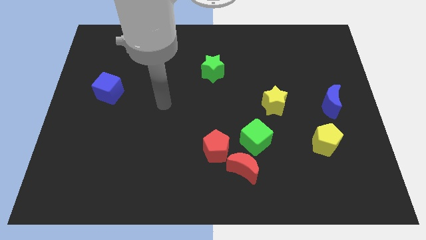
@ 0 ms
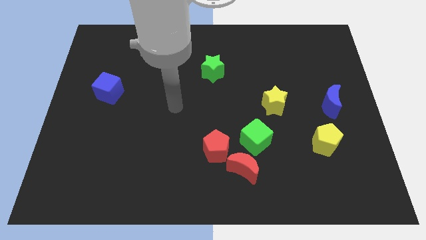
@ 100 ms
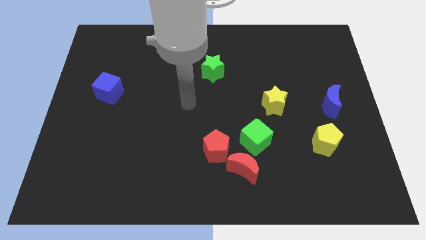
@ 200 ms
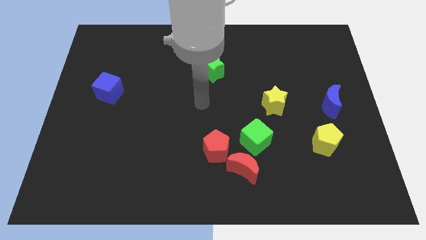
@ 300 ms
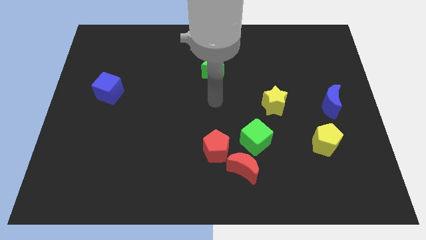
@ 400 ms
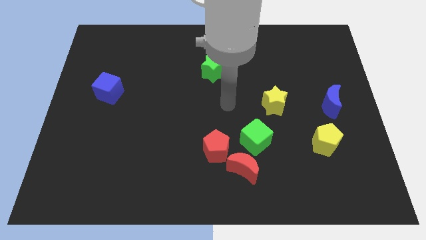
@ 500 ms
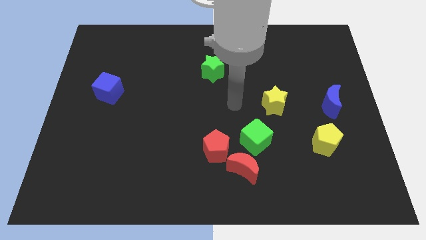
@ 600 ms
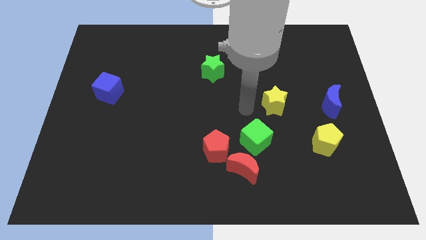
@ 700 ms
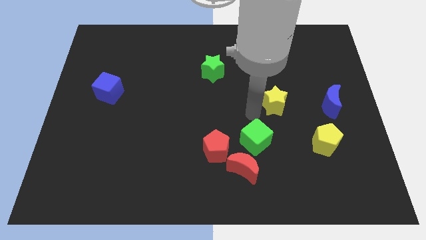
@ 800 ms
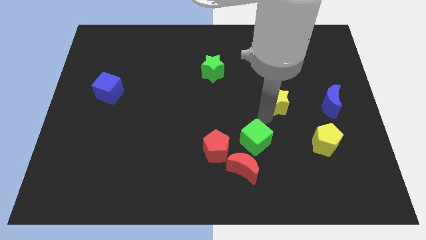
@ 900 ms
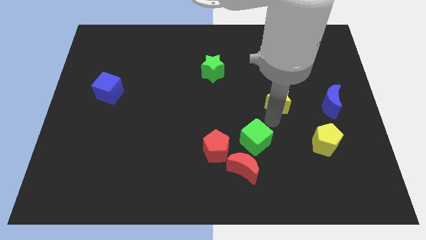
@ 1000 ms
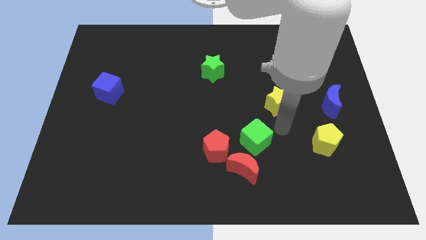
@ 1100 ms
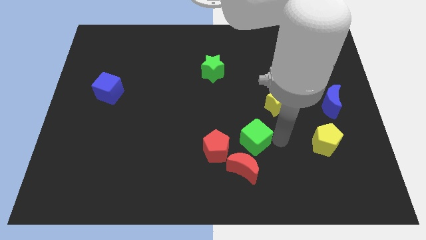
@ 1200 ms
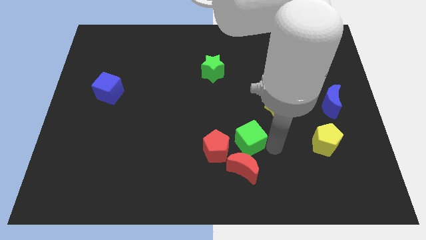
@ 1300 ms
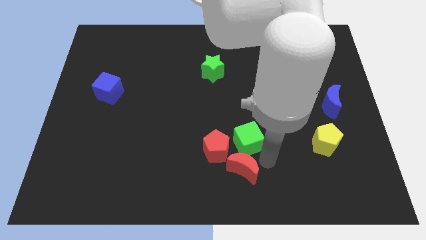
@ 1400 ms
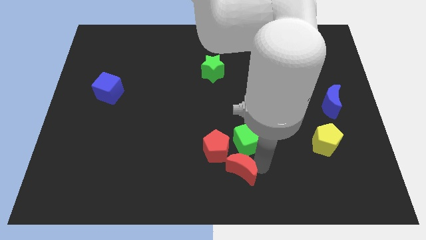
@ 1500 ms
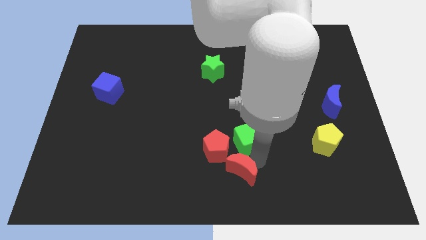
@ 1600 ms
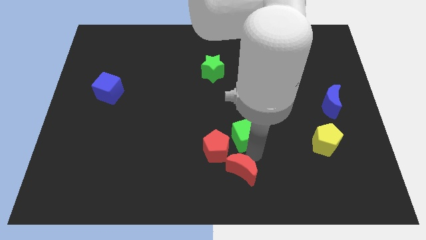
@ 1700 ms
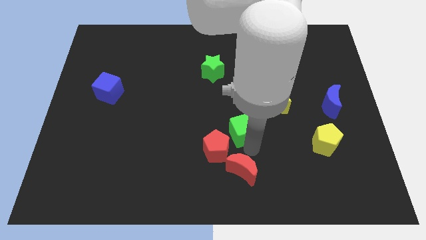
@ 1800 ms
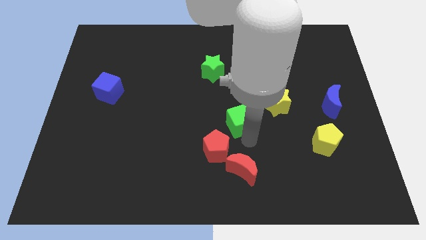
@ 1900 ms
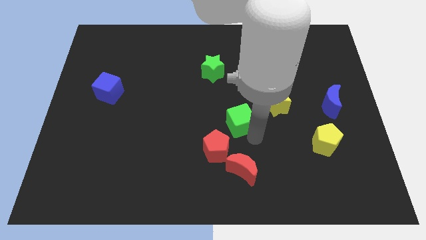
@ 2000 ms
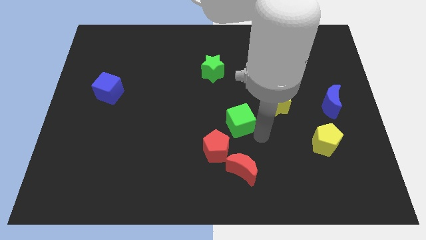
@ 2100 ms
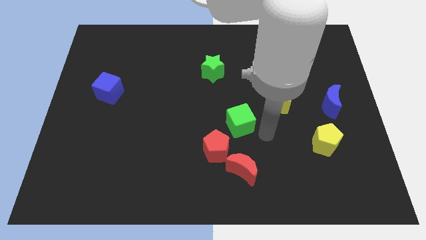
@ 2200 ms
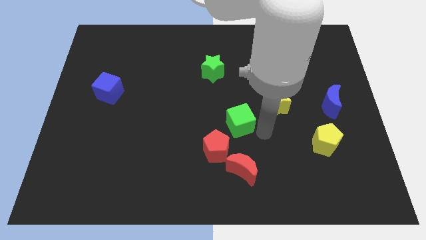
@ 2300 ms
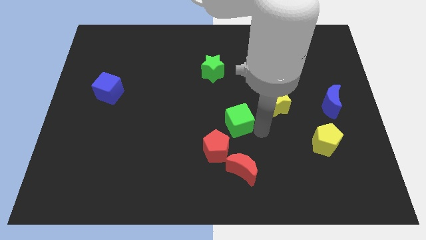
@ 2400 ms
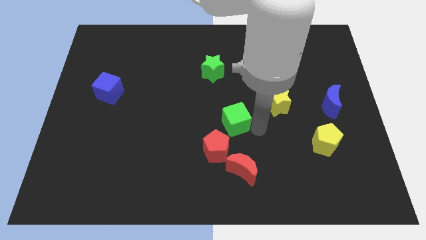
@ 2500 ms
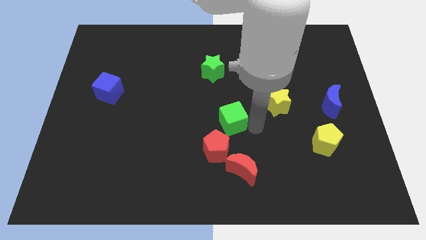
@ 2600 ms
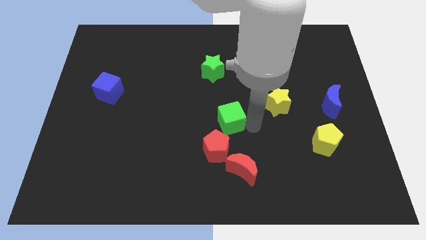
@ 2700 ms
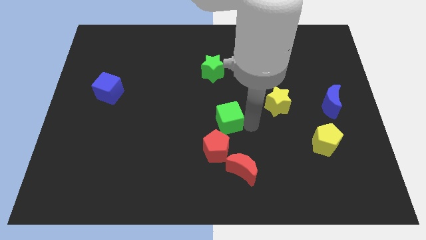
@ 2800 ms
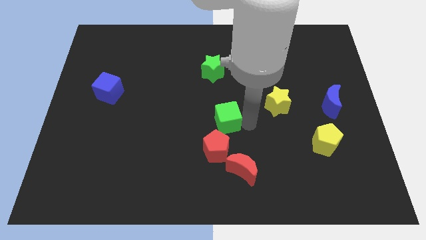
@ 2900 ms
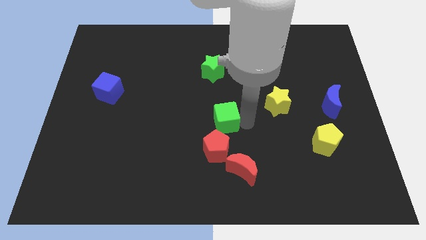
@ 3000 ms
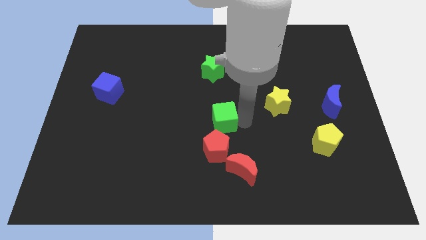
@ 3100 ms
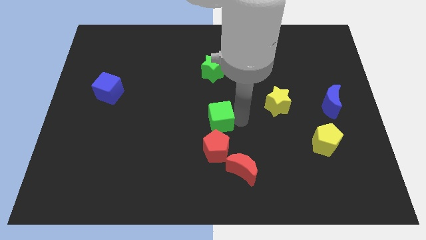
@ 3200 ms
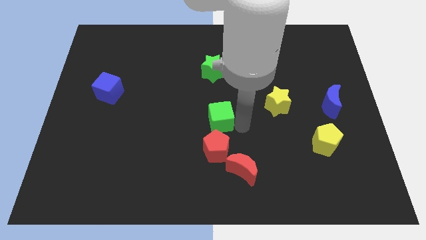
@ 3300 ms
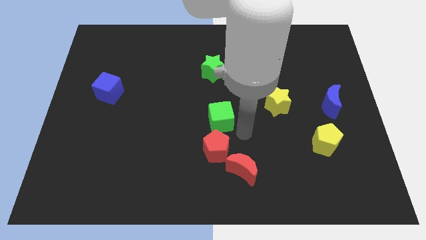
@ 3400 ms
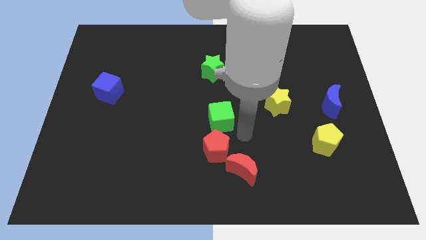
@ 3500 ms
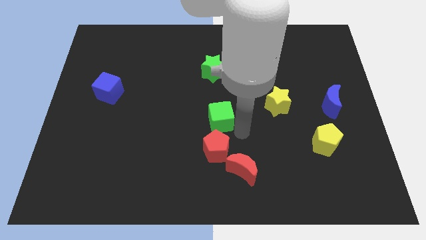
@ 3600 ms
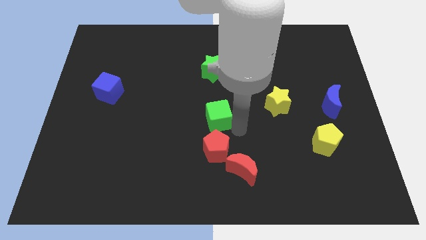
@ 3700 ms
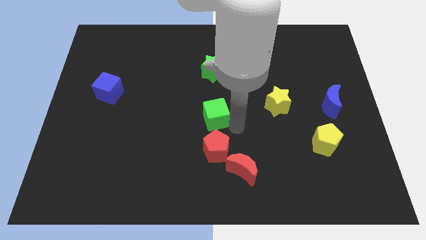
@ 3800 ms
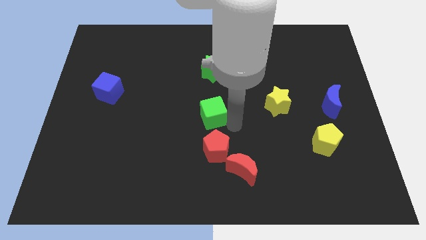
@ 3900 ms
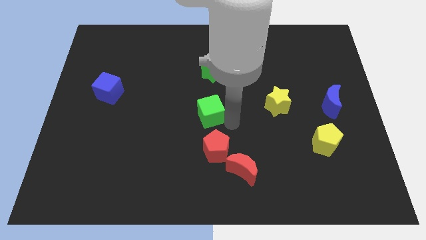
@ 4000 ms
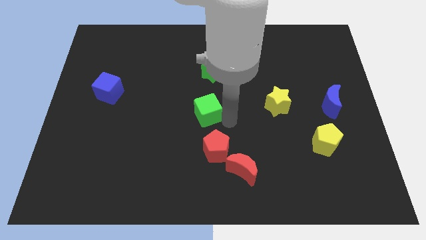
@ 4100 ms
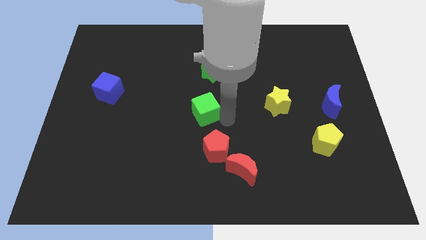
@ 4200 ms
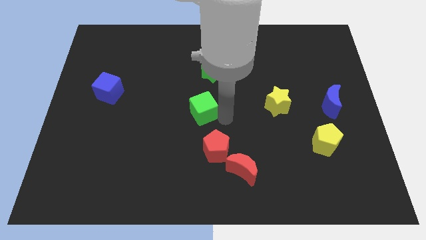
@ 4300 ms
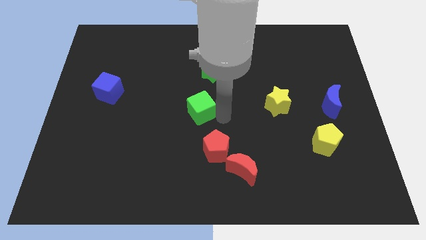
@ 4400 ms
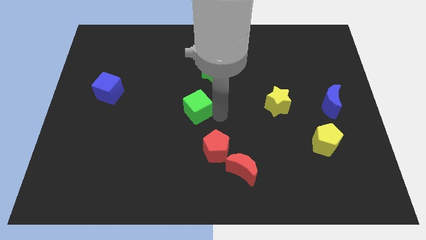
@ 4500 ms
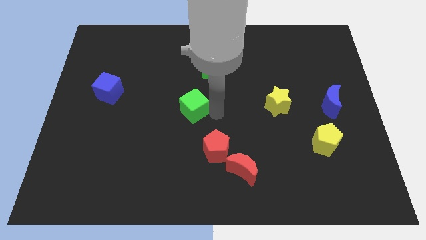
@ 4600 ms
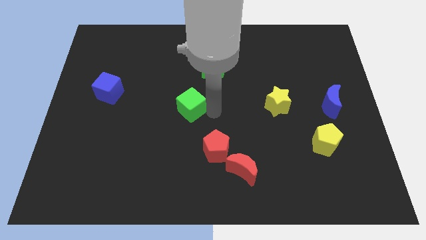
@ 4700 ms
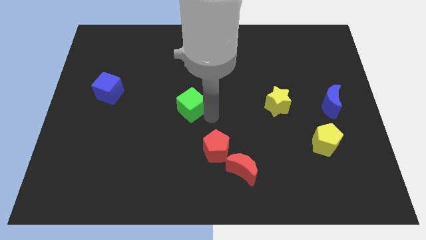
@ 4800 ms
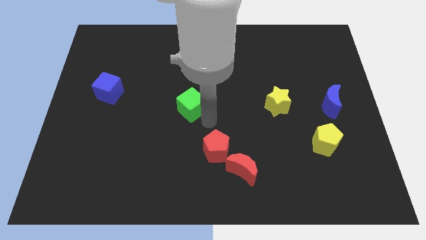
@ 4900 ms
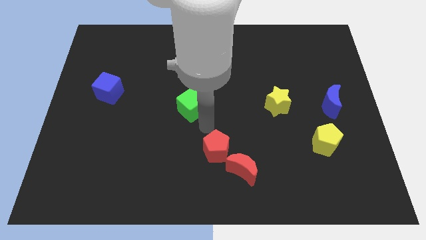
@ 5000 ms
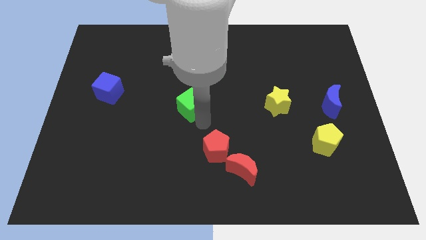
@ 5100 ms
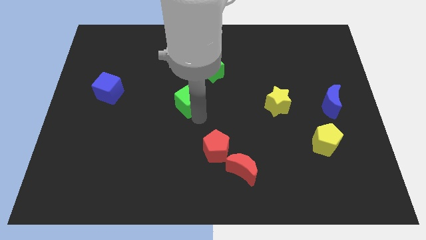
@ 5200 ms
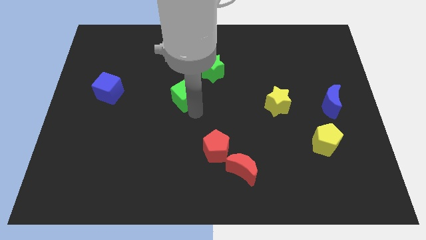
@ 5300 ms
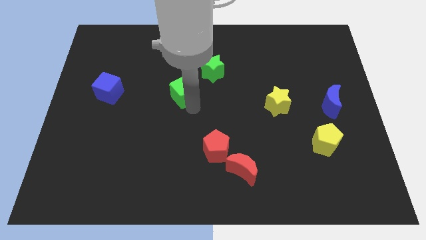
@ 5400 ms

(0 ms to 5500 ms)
push the green cube upwards and then to the left

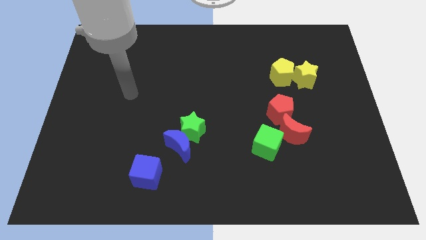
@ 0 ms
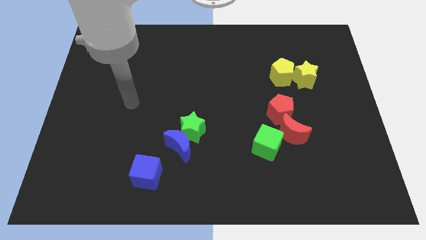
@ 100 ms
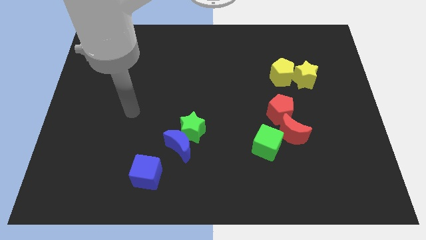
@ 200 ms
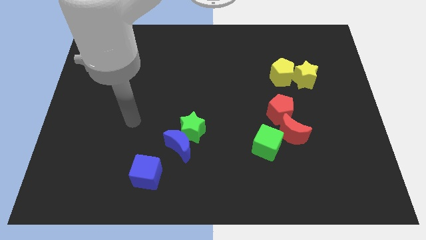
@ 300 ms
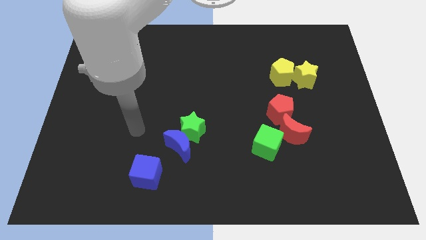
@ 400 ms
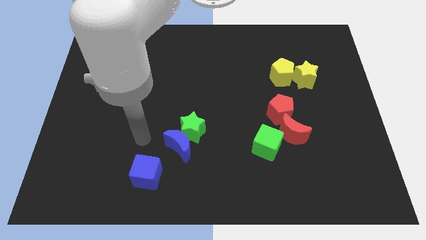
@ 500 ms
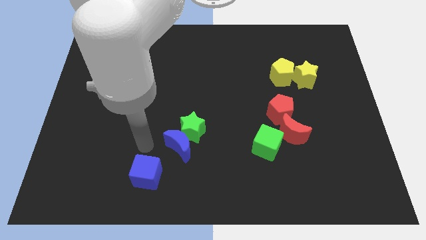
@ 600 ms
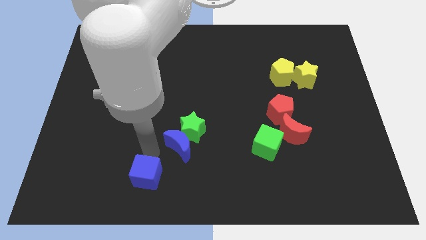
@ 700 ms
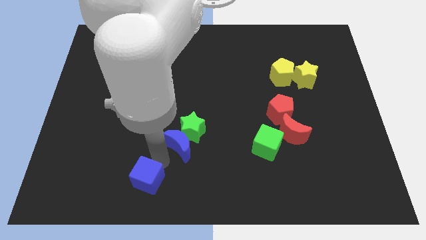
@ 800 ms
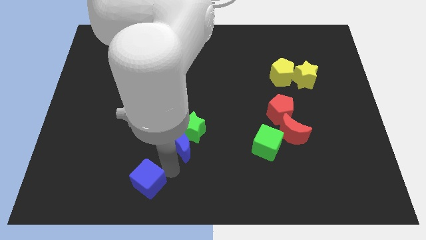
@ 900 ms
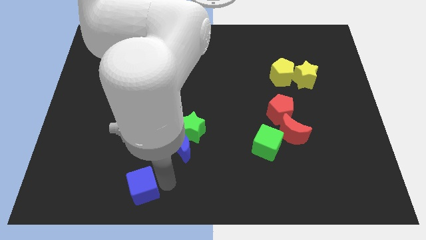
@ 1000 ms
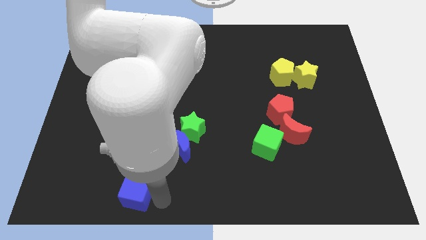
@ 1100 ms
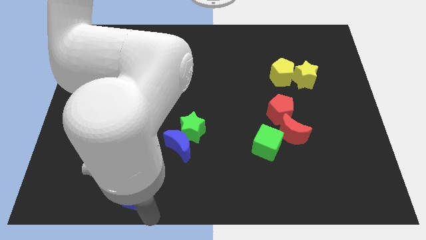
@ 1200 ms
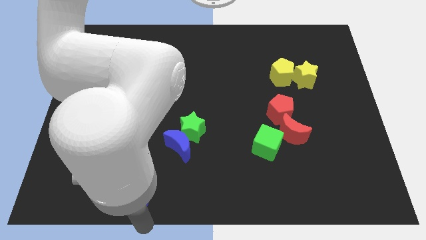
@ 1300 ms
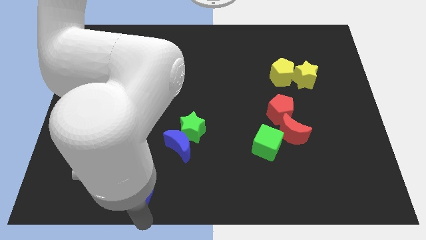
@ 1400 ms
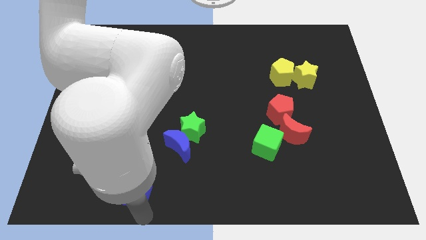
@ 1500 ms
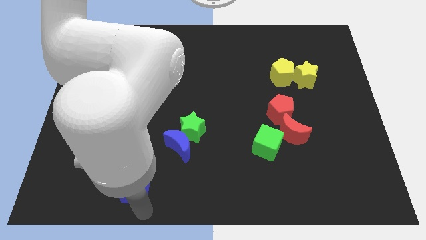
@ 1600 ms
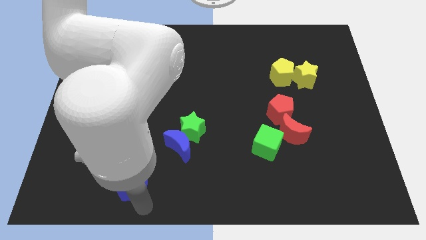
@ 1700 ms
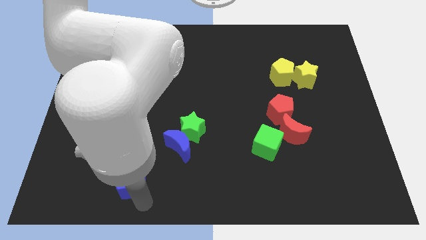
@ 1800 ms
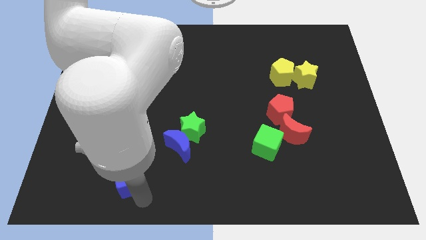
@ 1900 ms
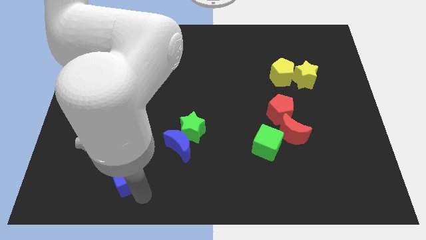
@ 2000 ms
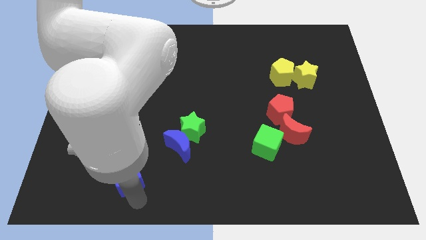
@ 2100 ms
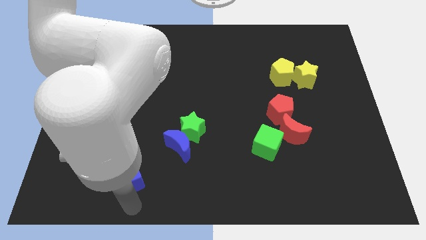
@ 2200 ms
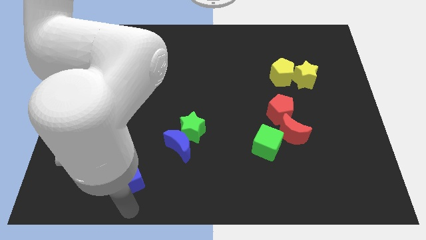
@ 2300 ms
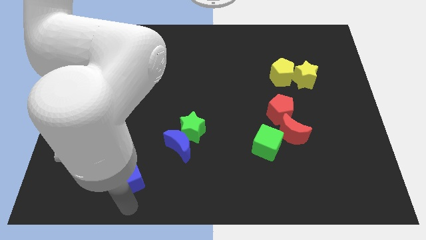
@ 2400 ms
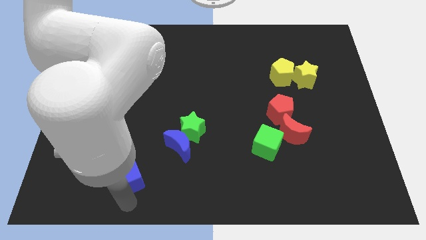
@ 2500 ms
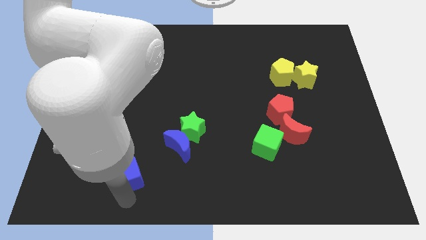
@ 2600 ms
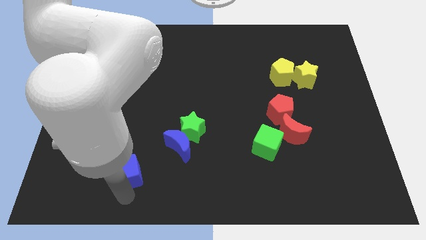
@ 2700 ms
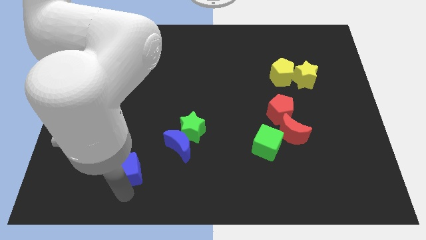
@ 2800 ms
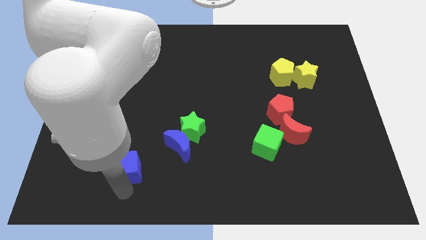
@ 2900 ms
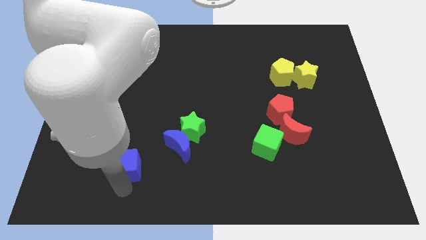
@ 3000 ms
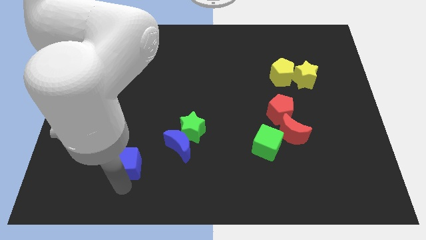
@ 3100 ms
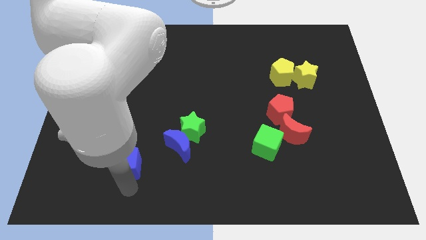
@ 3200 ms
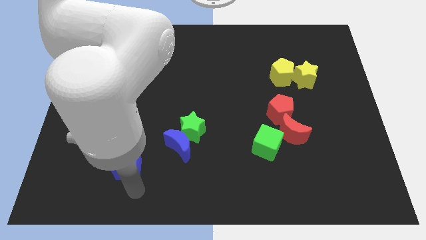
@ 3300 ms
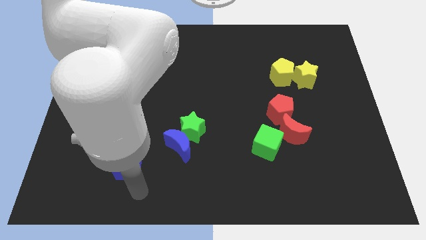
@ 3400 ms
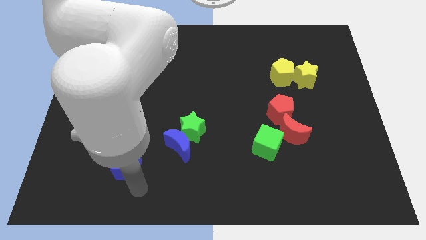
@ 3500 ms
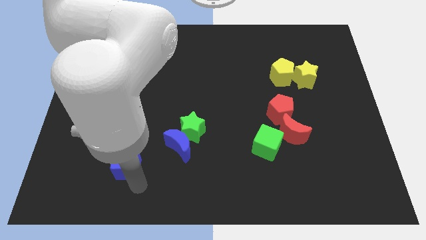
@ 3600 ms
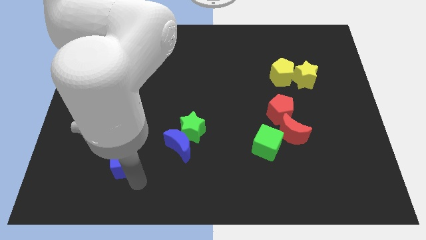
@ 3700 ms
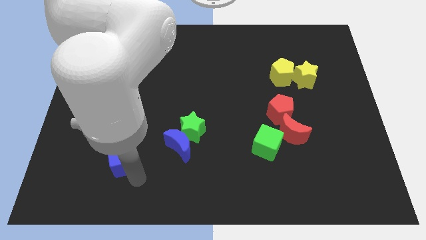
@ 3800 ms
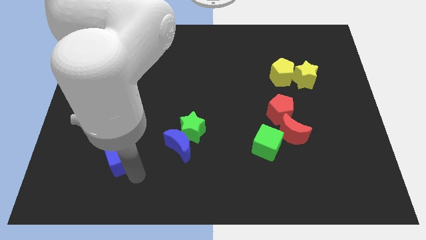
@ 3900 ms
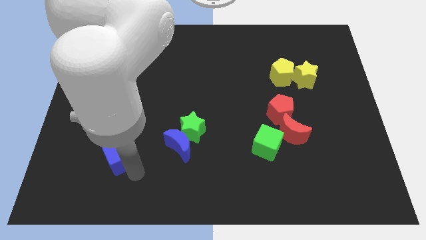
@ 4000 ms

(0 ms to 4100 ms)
slightly push the blue cube up and to the left
